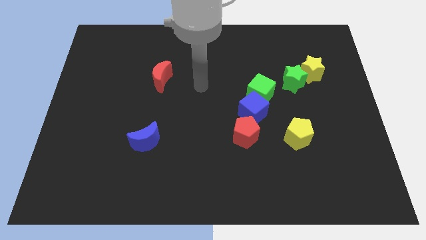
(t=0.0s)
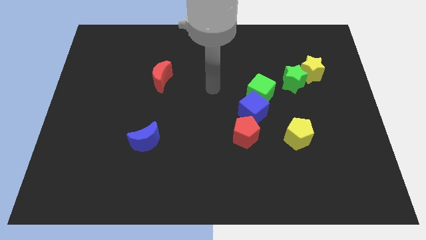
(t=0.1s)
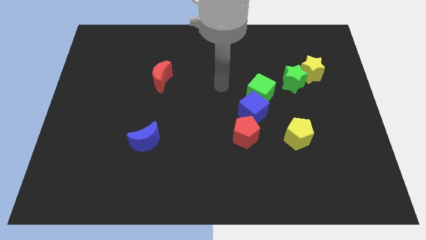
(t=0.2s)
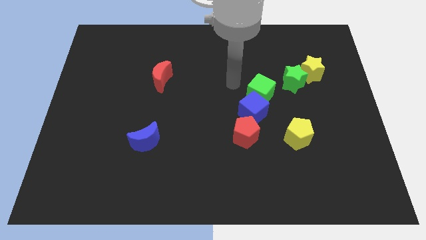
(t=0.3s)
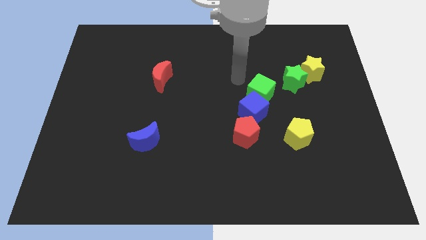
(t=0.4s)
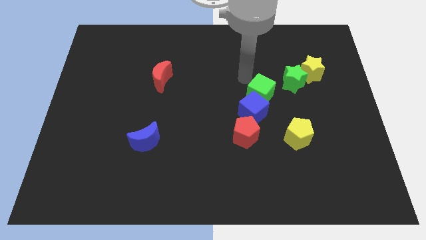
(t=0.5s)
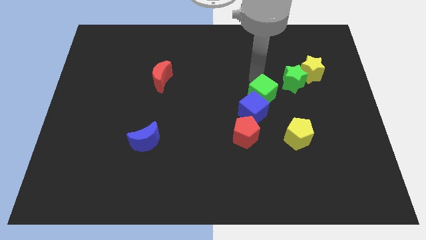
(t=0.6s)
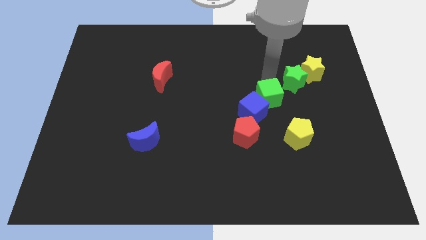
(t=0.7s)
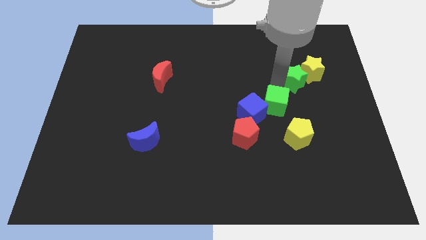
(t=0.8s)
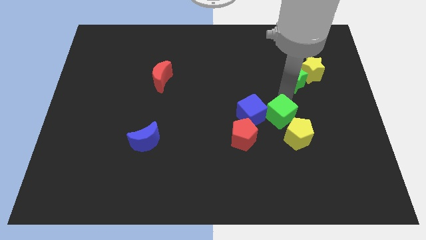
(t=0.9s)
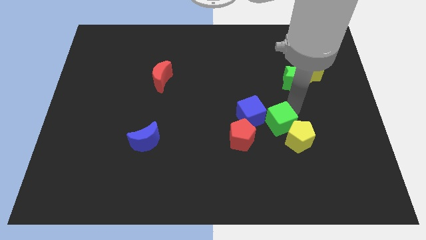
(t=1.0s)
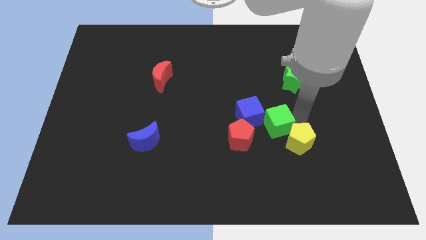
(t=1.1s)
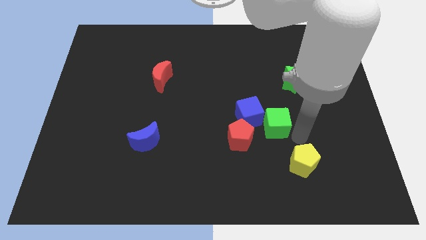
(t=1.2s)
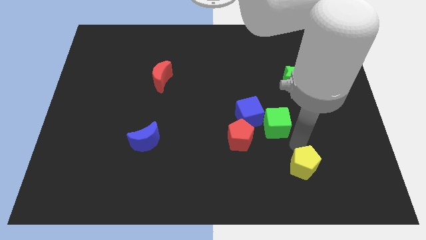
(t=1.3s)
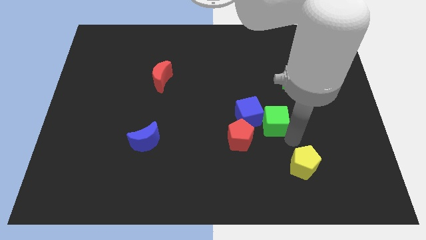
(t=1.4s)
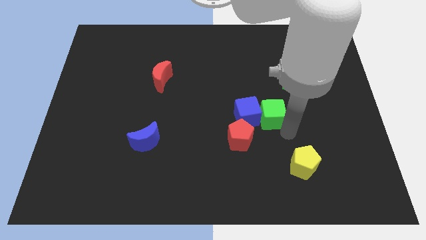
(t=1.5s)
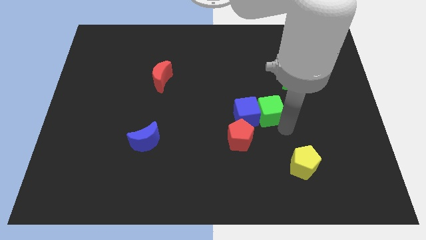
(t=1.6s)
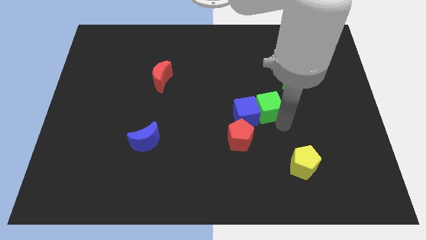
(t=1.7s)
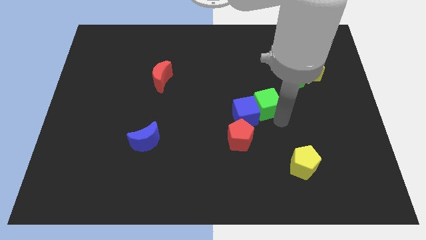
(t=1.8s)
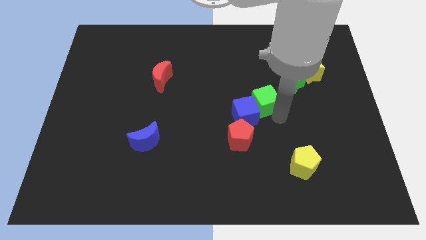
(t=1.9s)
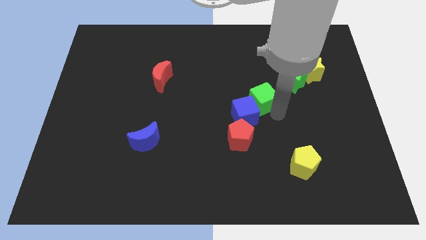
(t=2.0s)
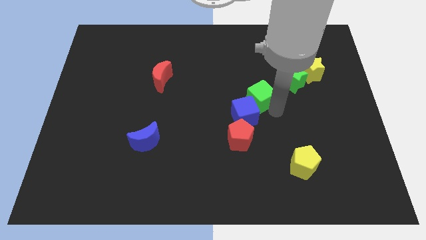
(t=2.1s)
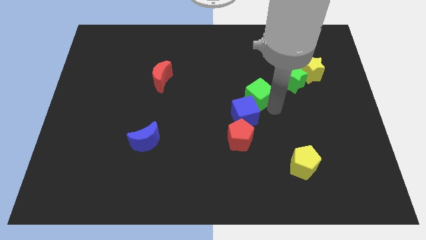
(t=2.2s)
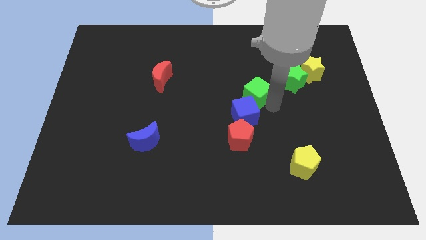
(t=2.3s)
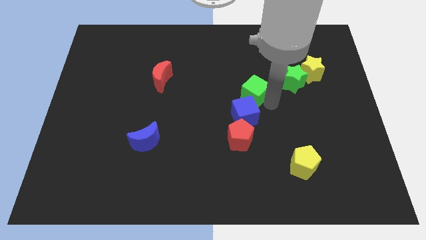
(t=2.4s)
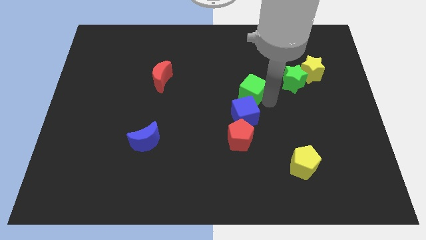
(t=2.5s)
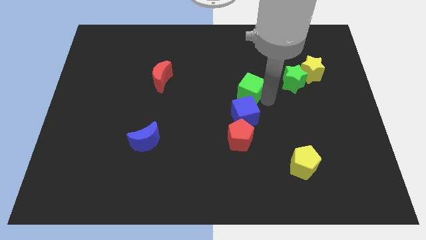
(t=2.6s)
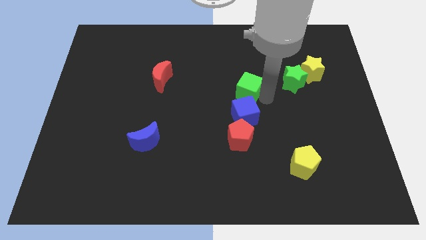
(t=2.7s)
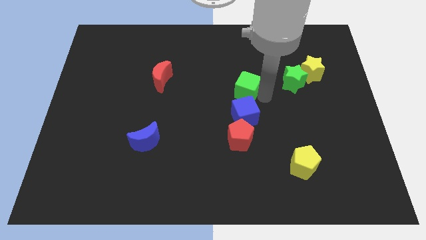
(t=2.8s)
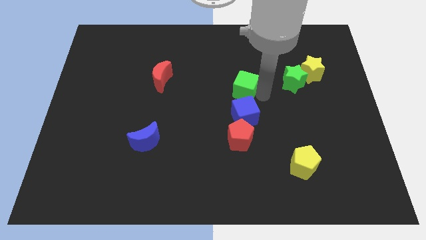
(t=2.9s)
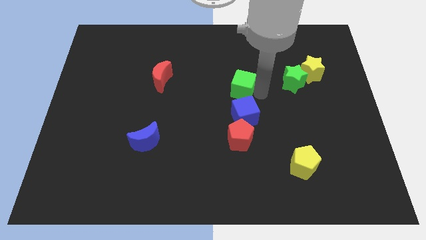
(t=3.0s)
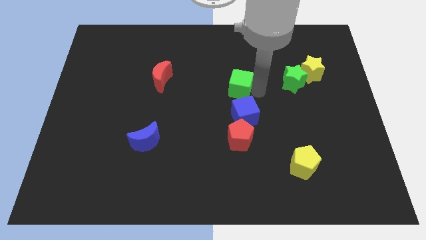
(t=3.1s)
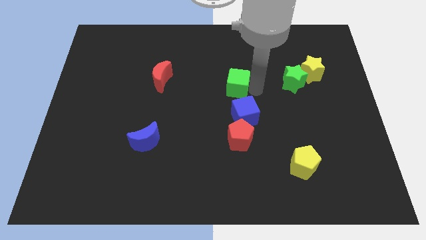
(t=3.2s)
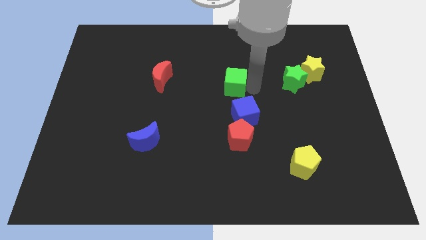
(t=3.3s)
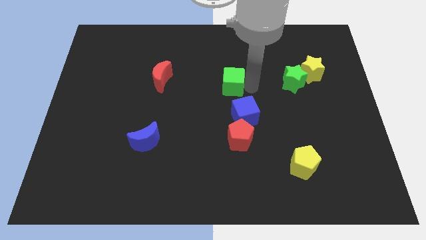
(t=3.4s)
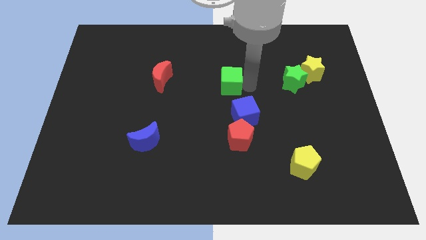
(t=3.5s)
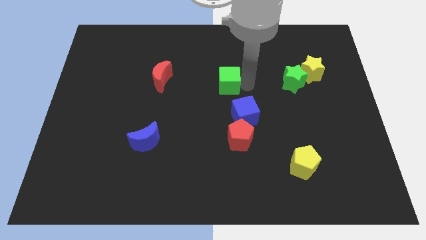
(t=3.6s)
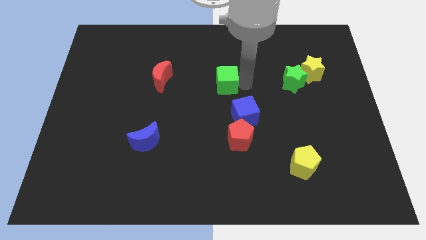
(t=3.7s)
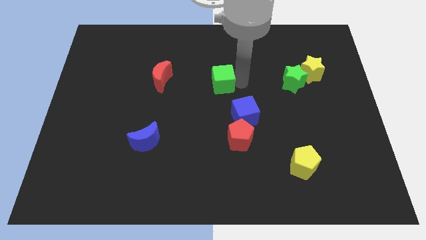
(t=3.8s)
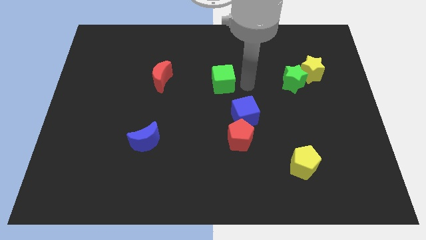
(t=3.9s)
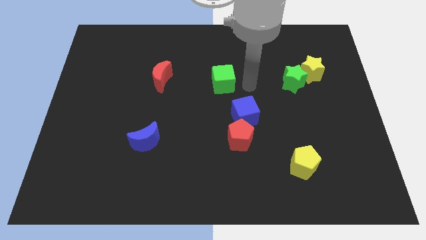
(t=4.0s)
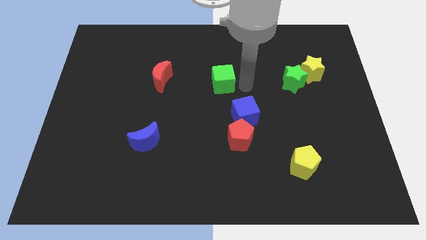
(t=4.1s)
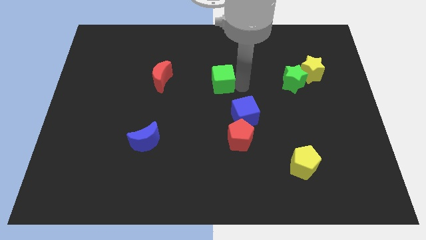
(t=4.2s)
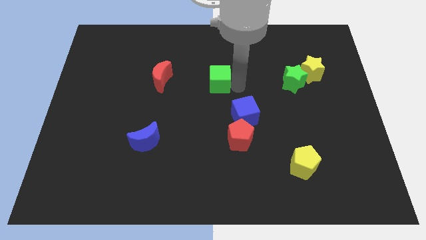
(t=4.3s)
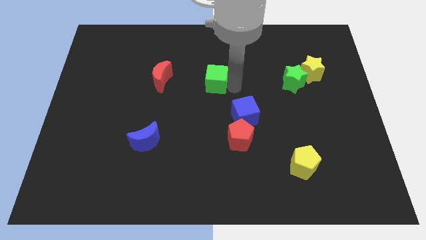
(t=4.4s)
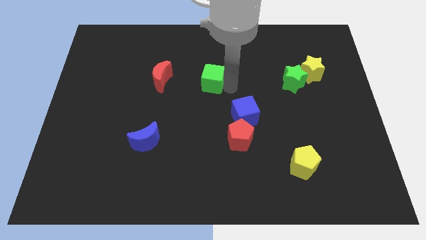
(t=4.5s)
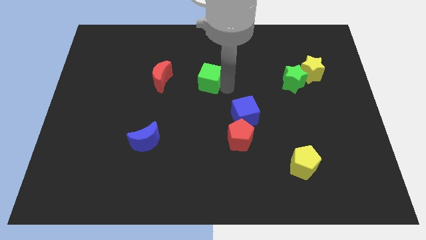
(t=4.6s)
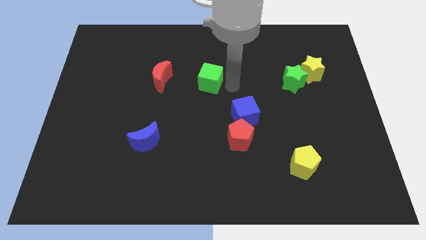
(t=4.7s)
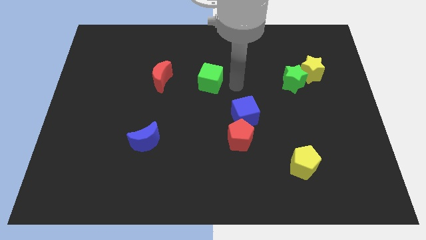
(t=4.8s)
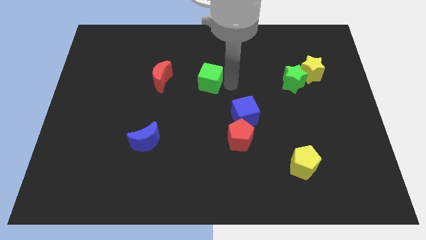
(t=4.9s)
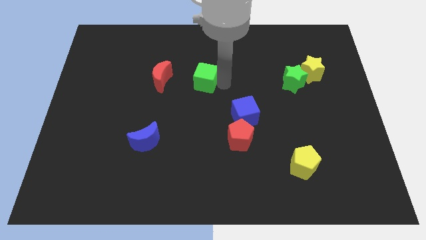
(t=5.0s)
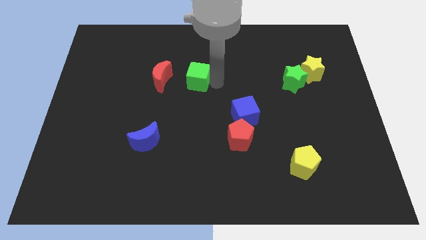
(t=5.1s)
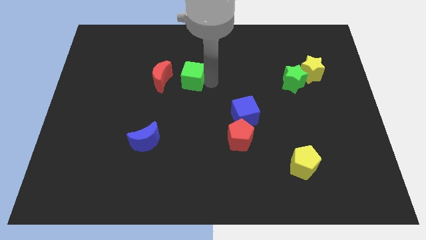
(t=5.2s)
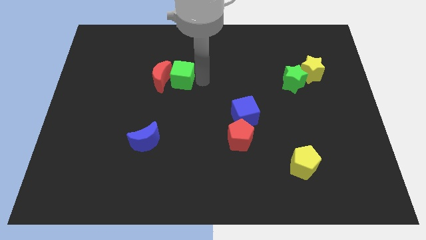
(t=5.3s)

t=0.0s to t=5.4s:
put the green cube next to the red moon

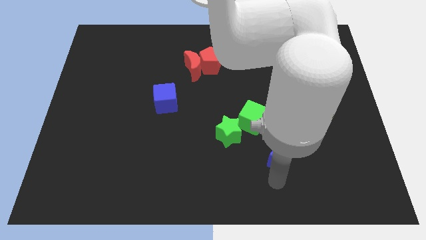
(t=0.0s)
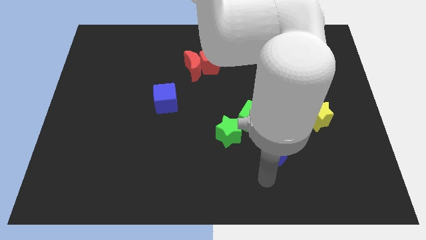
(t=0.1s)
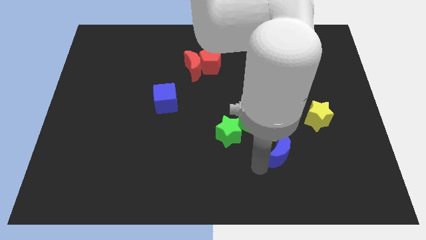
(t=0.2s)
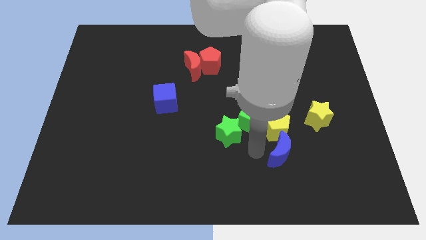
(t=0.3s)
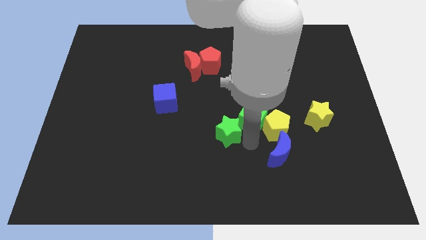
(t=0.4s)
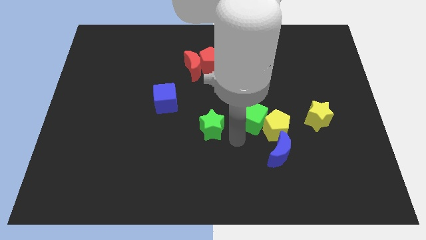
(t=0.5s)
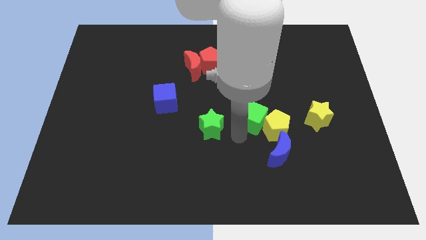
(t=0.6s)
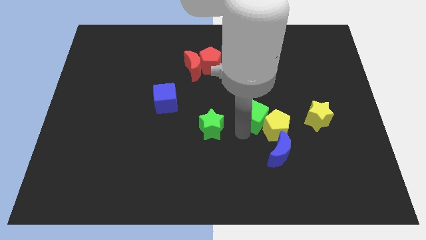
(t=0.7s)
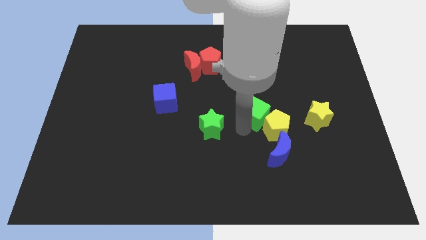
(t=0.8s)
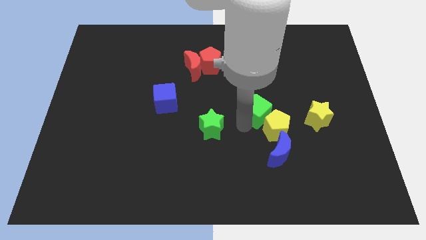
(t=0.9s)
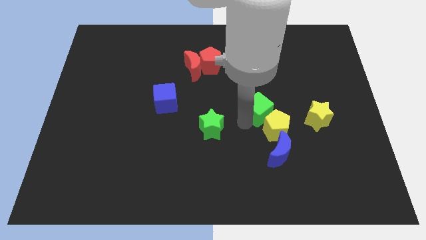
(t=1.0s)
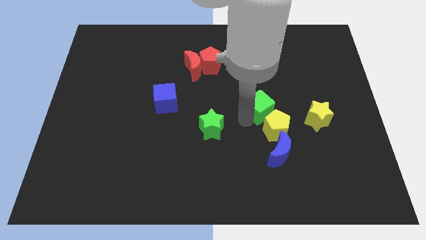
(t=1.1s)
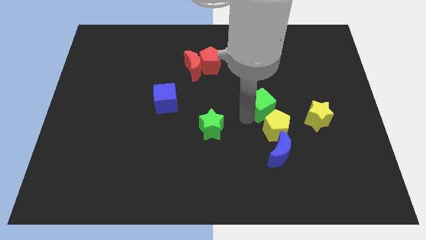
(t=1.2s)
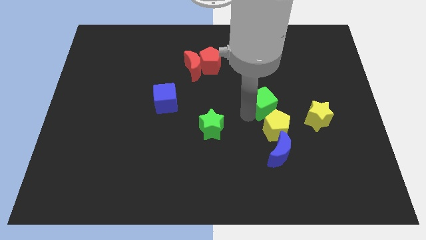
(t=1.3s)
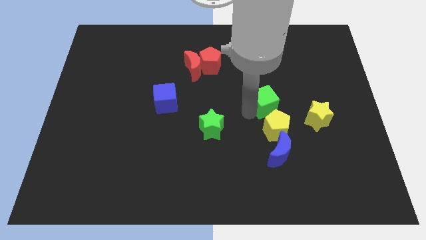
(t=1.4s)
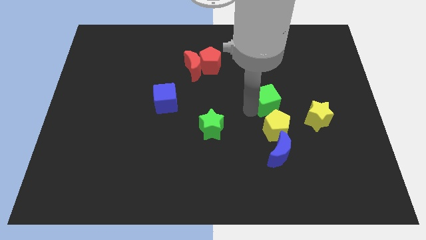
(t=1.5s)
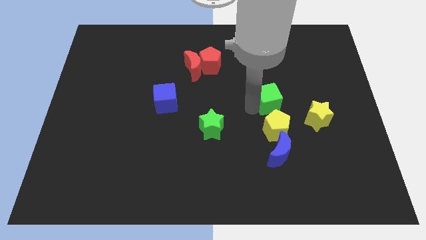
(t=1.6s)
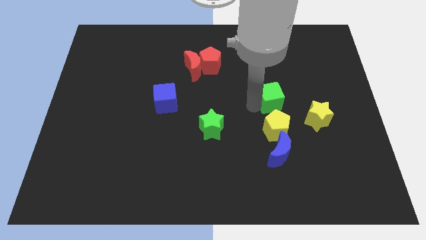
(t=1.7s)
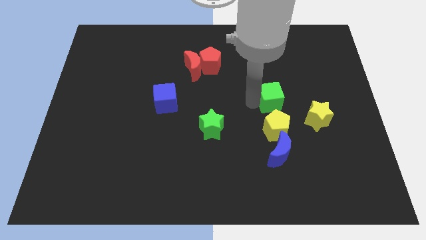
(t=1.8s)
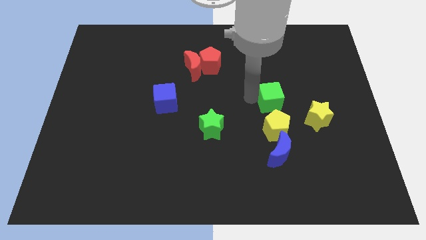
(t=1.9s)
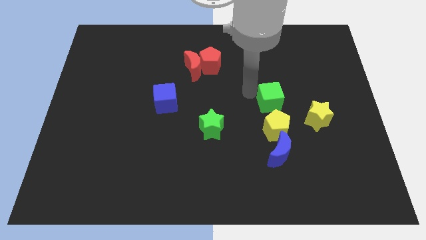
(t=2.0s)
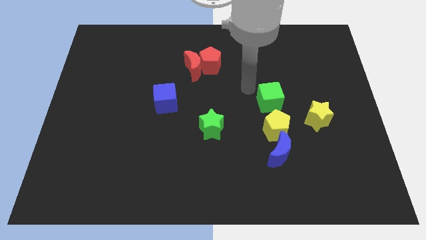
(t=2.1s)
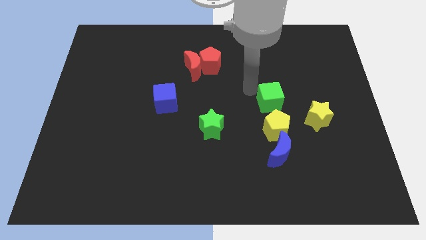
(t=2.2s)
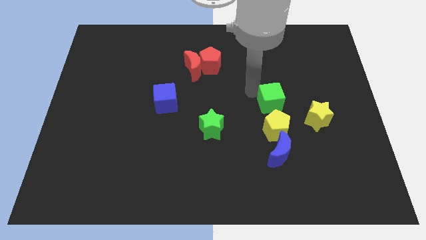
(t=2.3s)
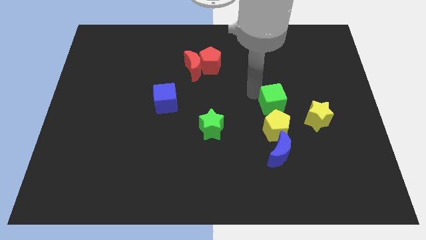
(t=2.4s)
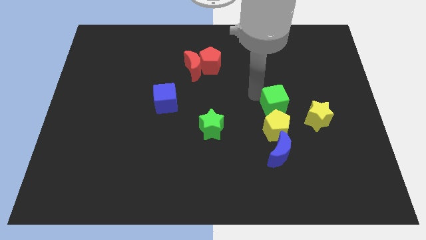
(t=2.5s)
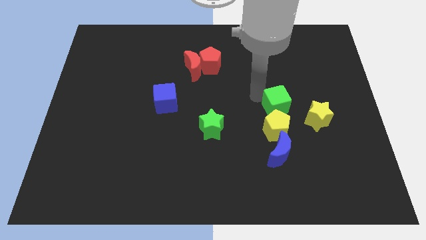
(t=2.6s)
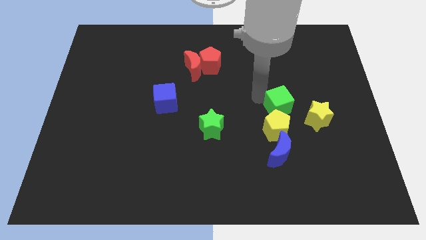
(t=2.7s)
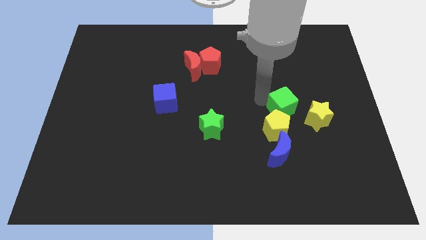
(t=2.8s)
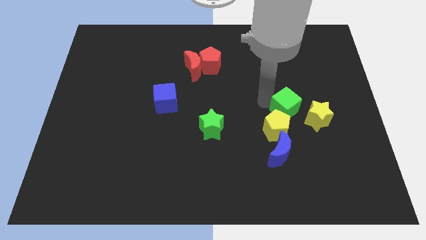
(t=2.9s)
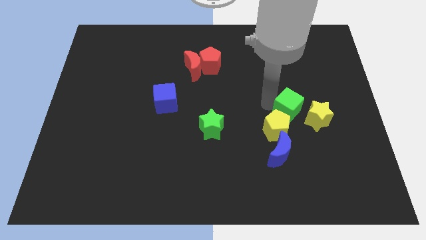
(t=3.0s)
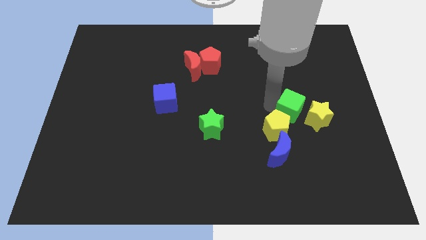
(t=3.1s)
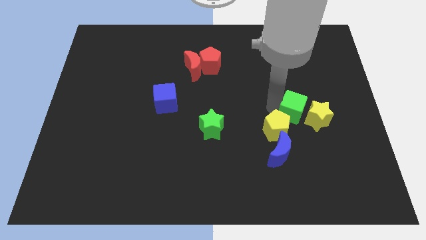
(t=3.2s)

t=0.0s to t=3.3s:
move the green cube close to the yellow star
